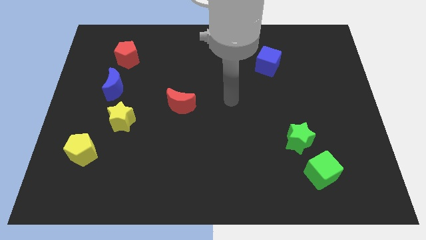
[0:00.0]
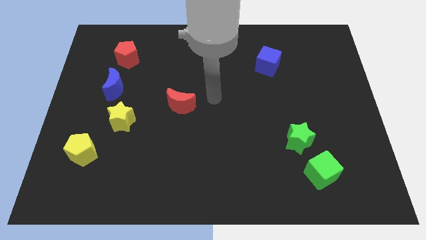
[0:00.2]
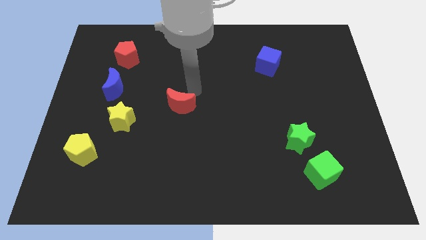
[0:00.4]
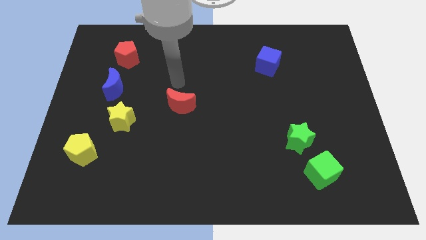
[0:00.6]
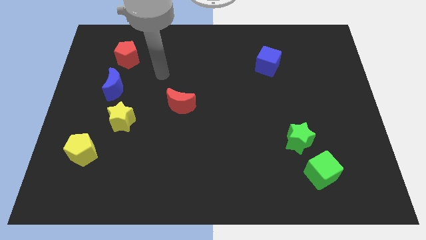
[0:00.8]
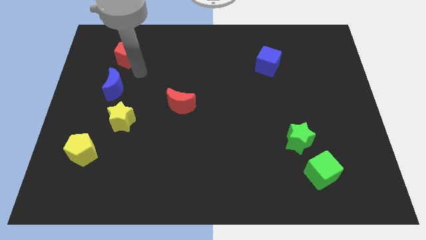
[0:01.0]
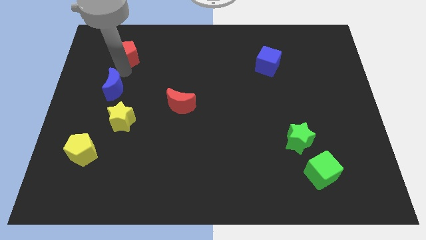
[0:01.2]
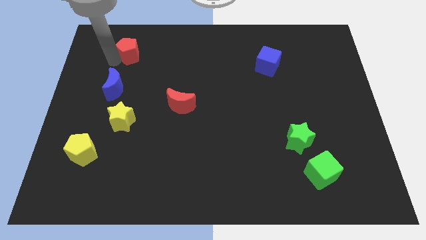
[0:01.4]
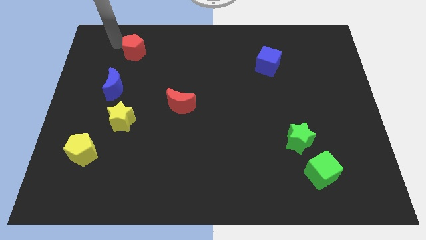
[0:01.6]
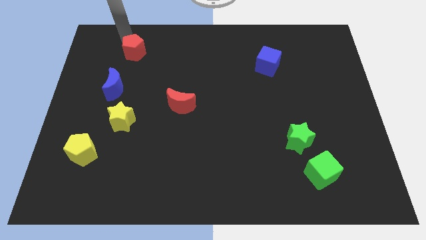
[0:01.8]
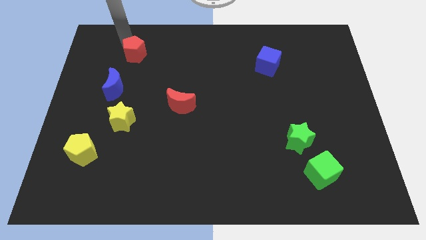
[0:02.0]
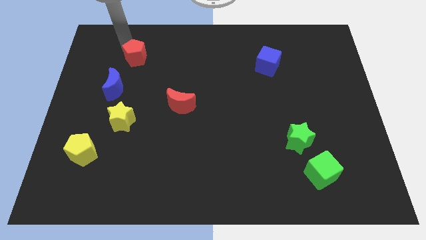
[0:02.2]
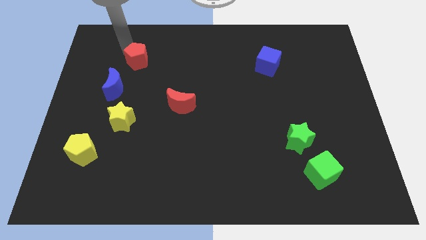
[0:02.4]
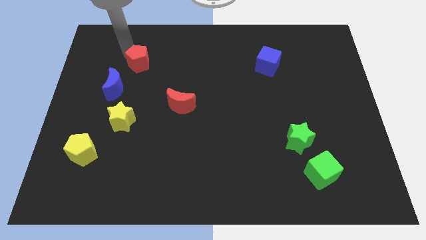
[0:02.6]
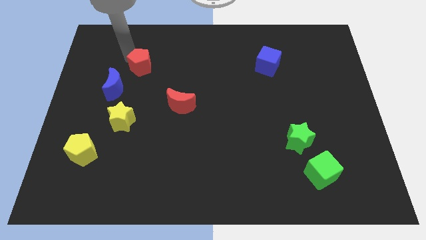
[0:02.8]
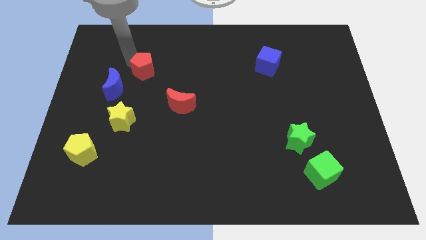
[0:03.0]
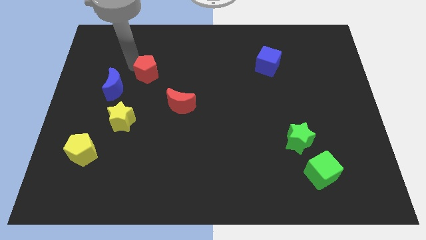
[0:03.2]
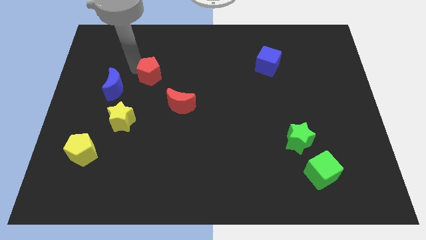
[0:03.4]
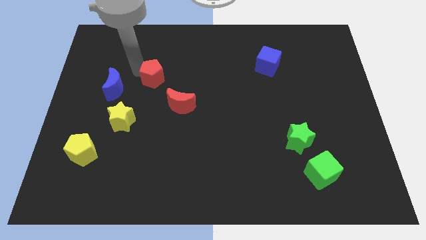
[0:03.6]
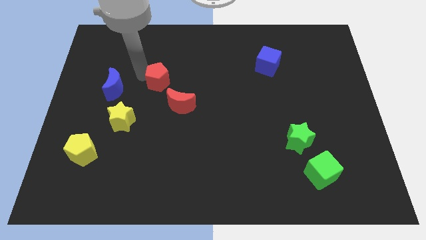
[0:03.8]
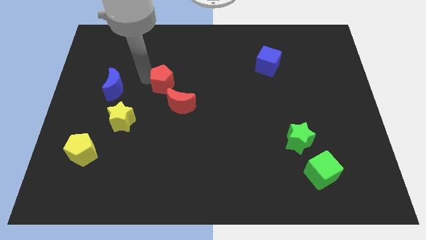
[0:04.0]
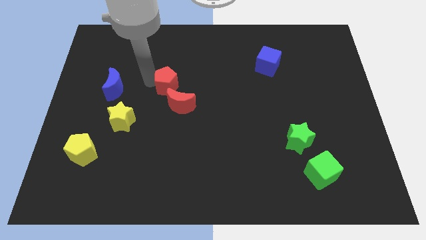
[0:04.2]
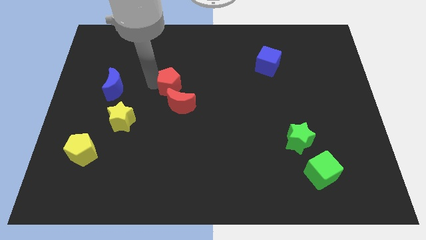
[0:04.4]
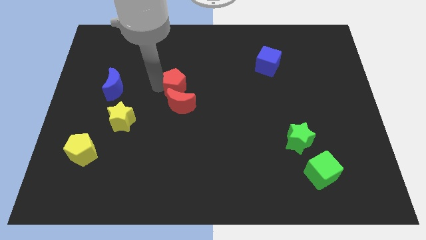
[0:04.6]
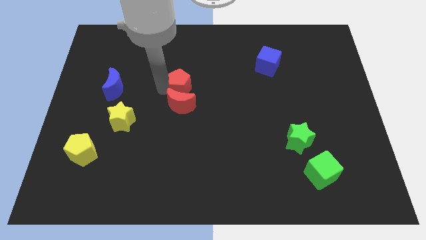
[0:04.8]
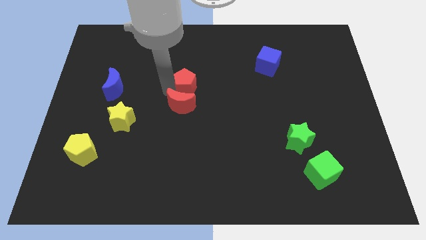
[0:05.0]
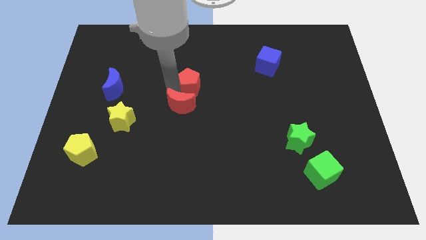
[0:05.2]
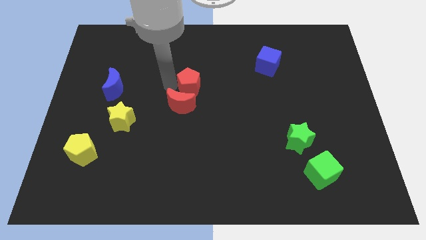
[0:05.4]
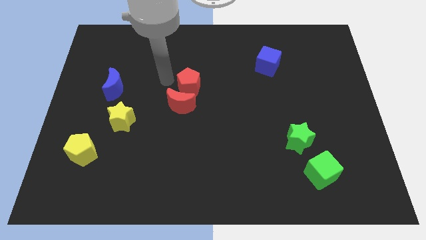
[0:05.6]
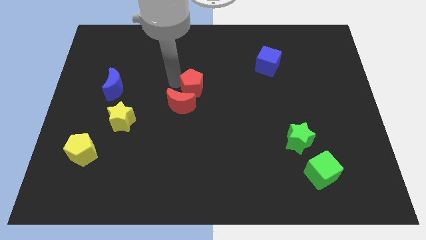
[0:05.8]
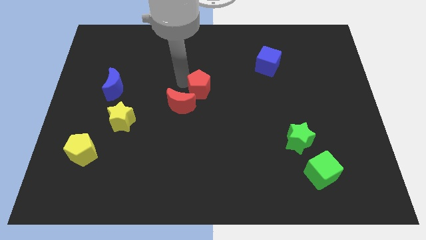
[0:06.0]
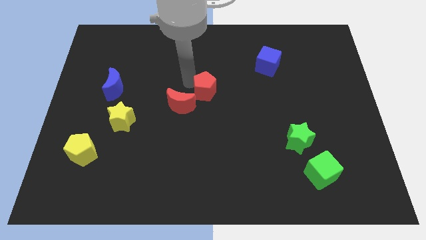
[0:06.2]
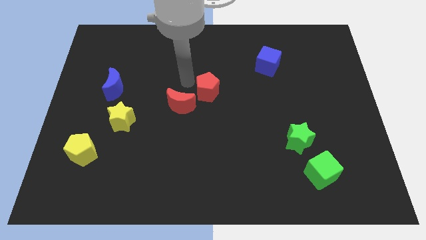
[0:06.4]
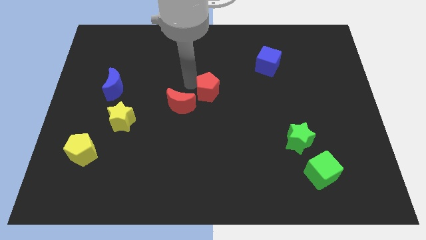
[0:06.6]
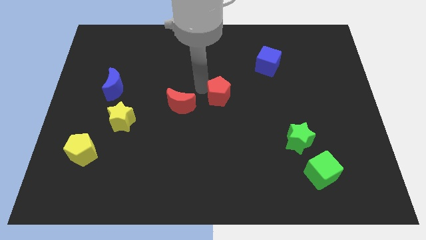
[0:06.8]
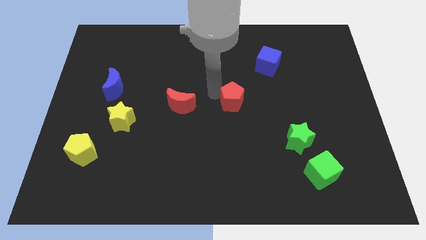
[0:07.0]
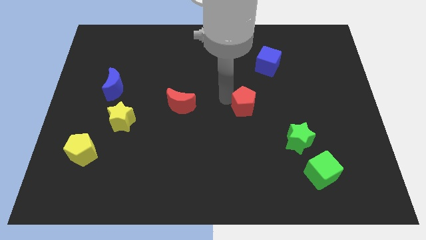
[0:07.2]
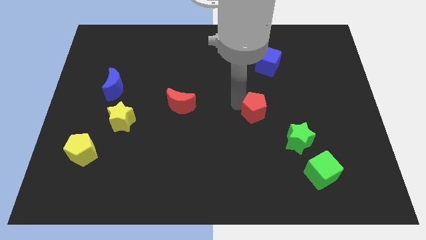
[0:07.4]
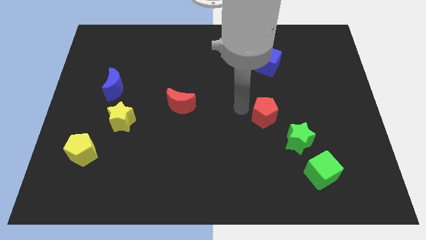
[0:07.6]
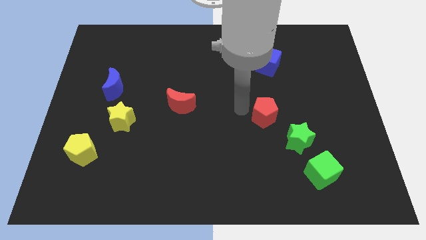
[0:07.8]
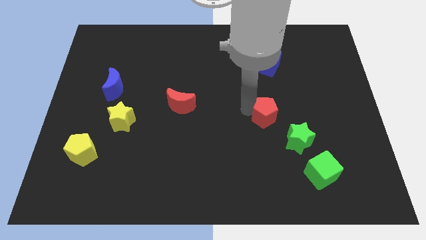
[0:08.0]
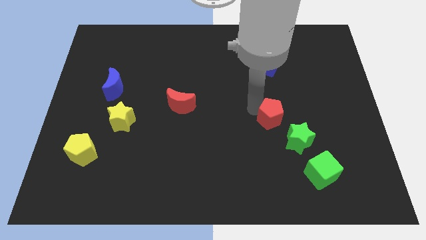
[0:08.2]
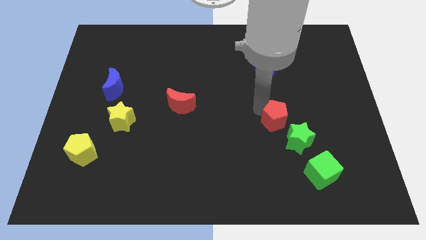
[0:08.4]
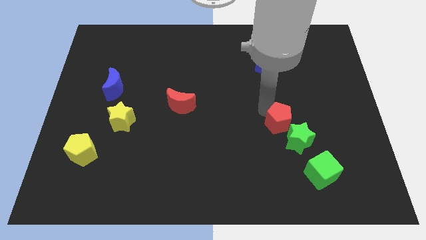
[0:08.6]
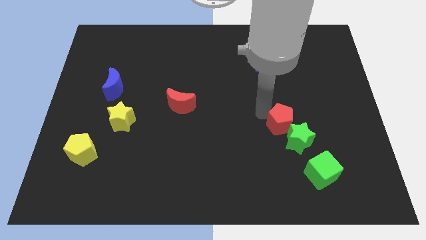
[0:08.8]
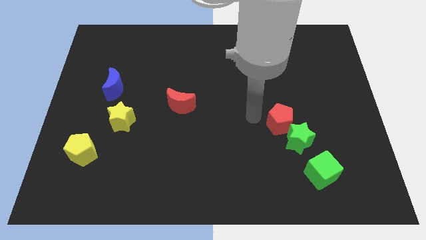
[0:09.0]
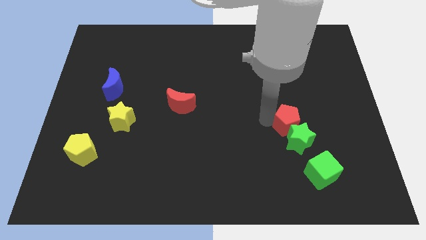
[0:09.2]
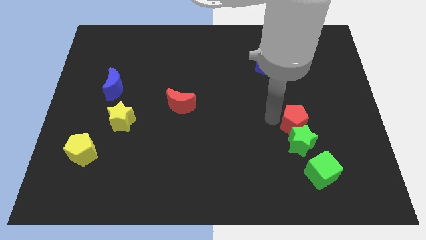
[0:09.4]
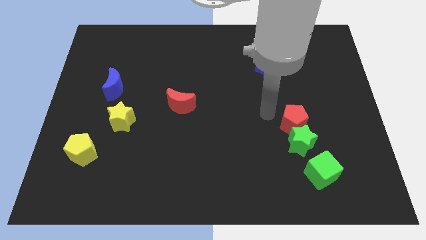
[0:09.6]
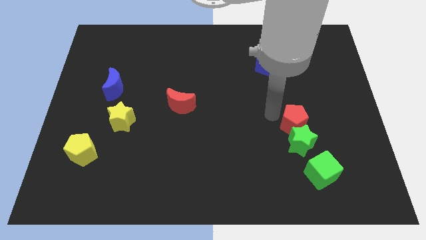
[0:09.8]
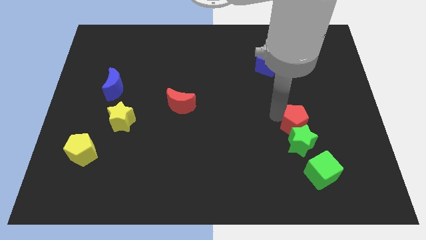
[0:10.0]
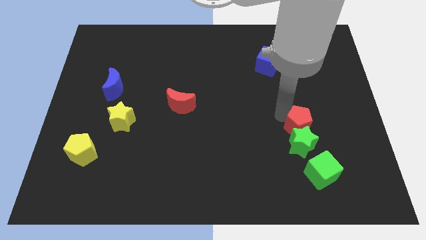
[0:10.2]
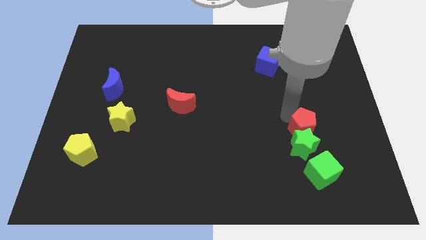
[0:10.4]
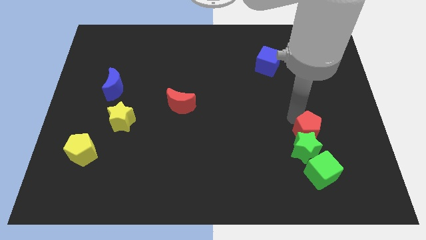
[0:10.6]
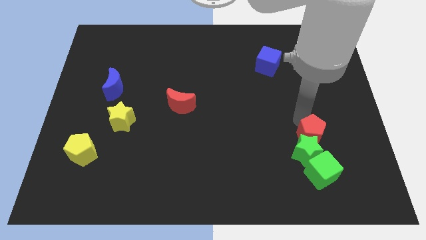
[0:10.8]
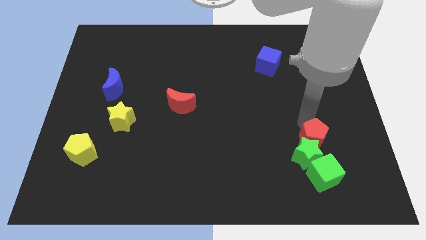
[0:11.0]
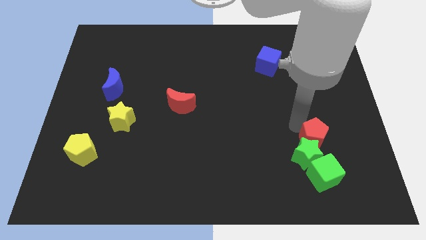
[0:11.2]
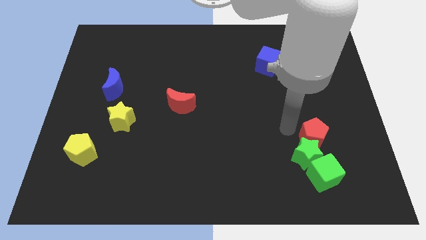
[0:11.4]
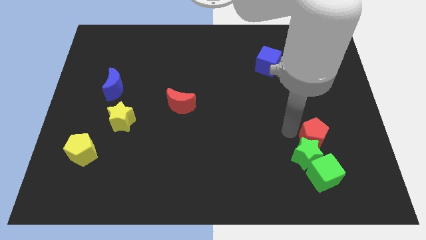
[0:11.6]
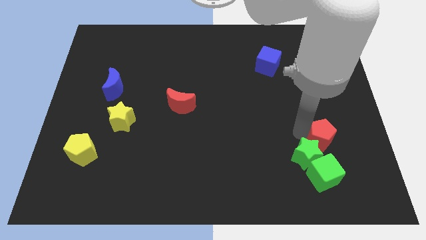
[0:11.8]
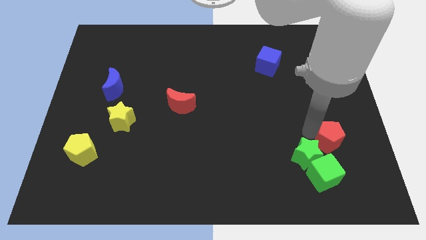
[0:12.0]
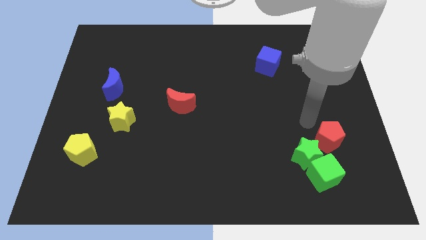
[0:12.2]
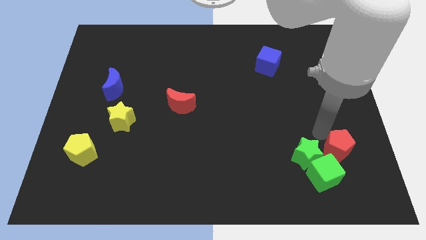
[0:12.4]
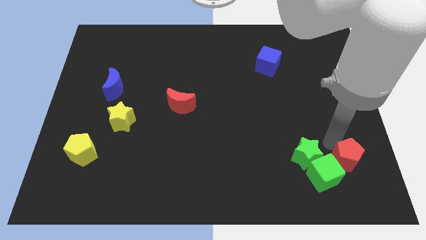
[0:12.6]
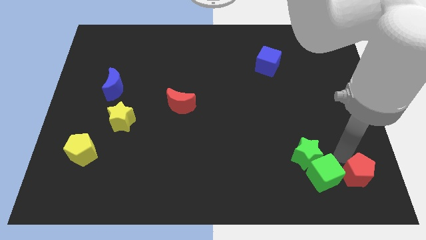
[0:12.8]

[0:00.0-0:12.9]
push the red pentagon to the bottom right

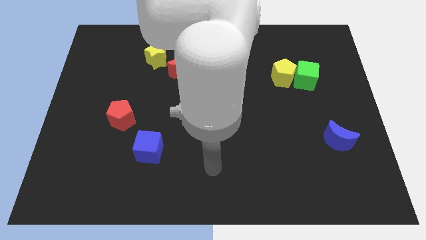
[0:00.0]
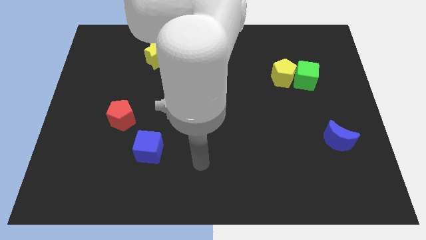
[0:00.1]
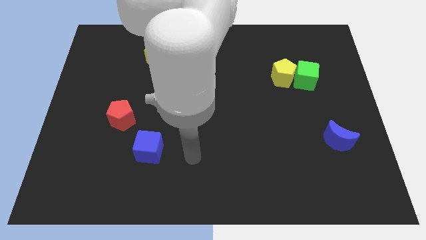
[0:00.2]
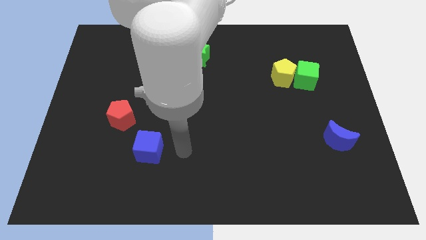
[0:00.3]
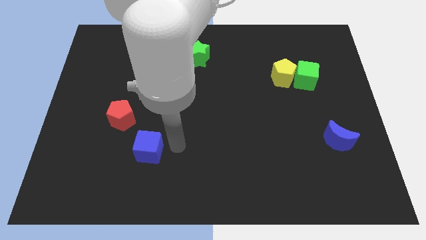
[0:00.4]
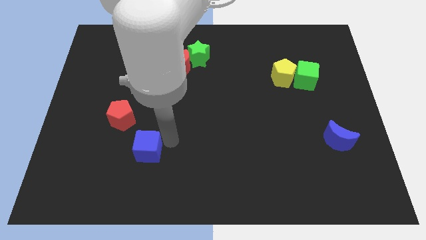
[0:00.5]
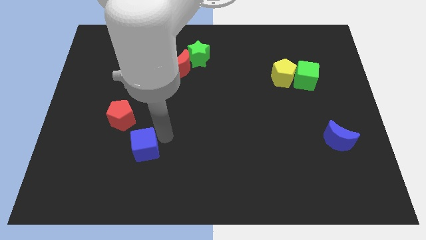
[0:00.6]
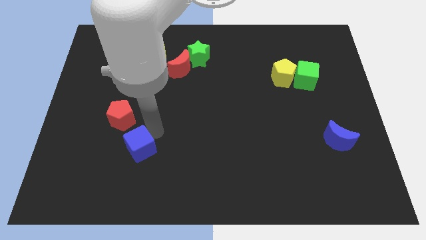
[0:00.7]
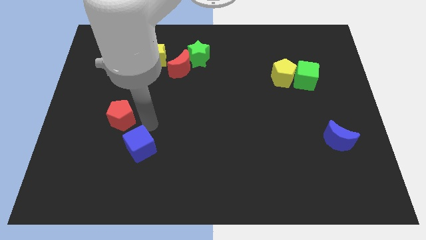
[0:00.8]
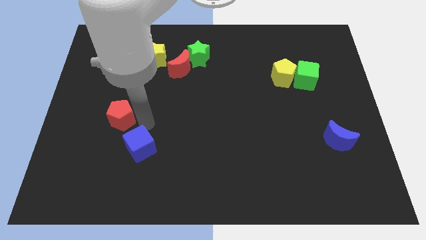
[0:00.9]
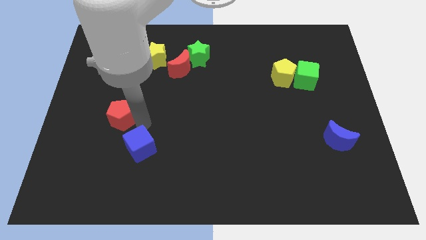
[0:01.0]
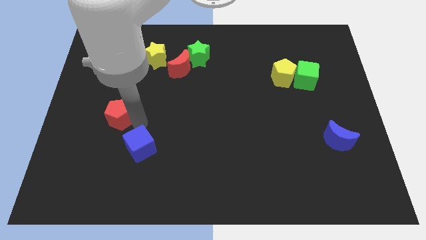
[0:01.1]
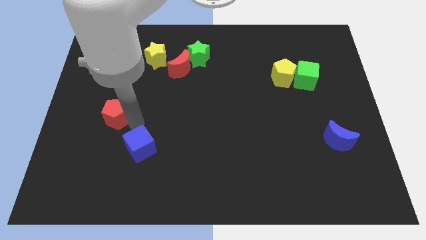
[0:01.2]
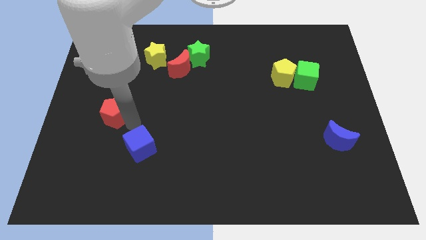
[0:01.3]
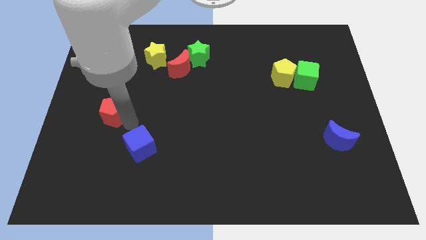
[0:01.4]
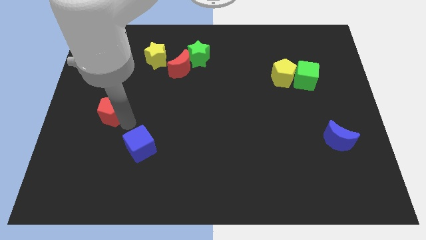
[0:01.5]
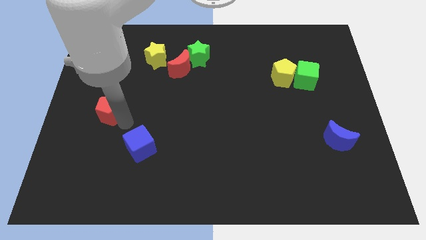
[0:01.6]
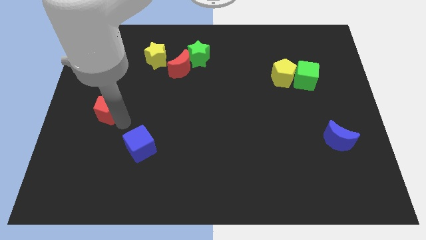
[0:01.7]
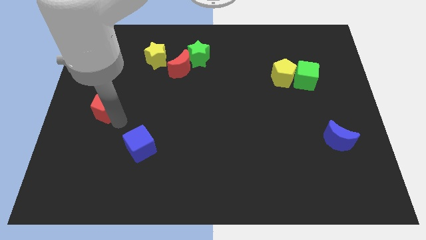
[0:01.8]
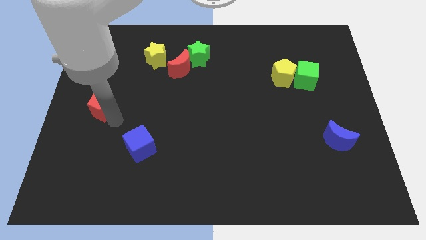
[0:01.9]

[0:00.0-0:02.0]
move the red pentagon to the left side
